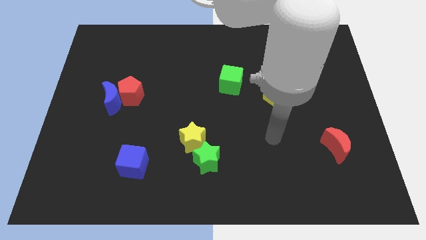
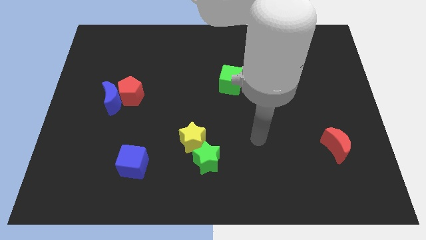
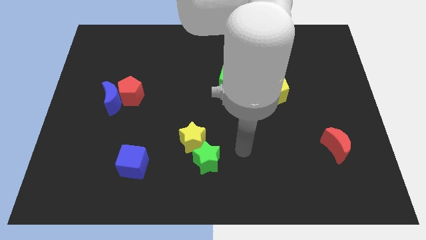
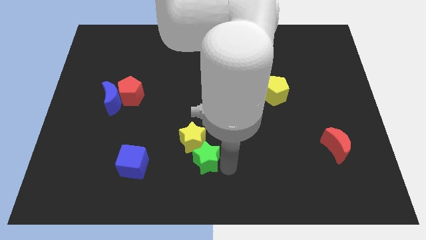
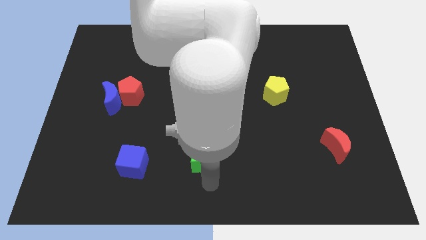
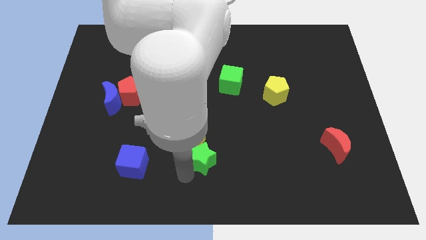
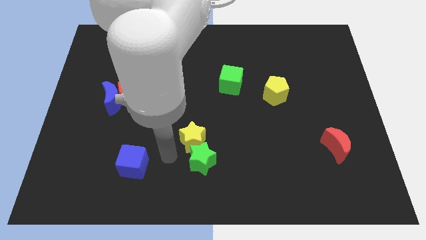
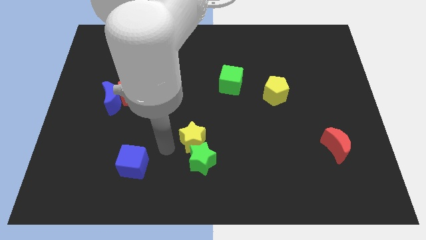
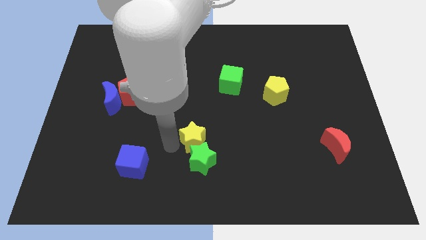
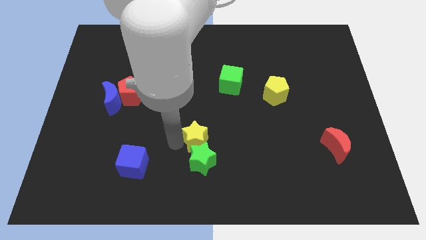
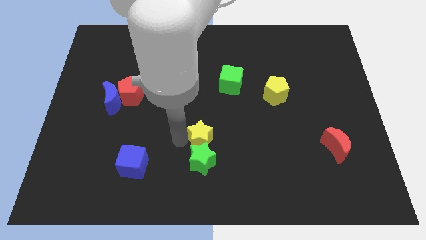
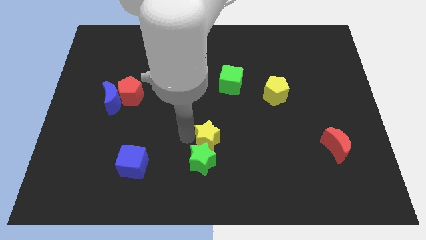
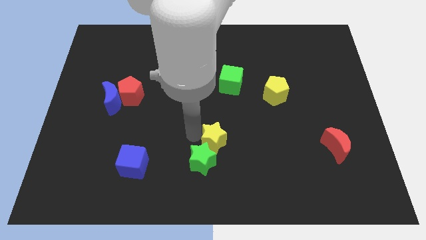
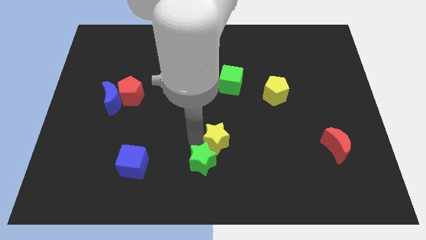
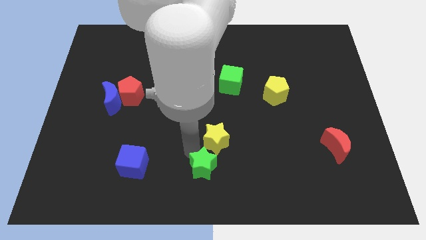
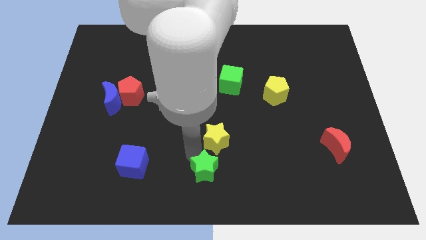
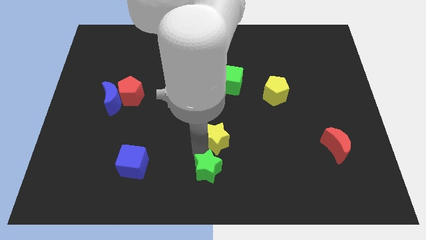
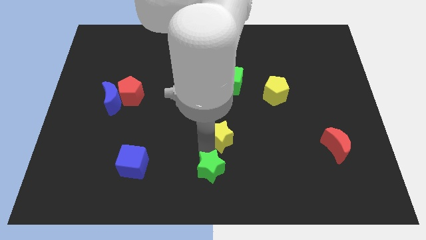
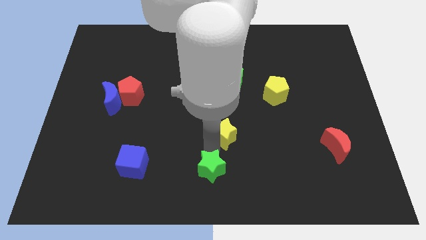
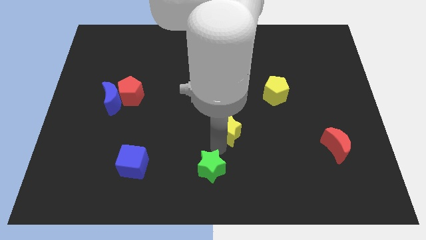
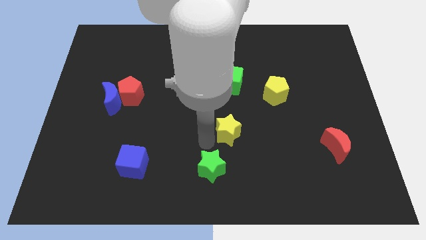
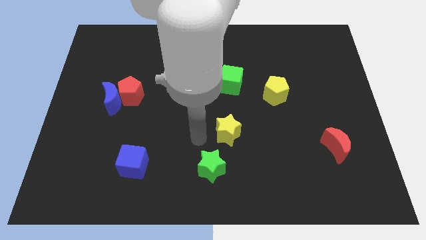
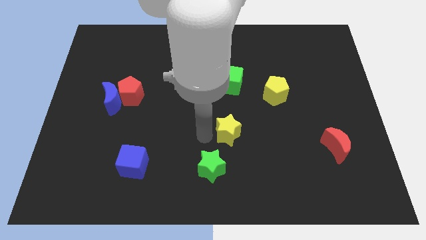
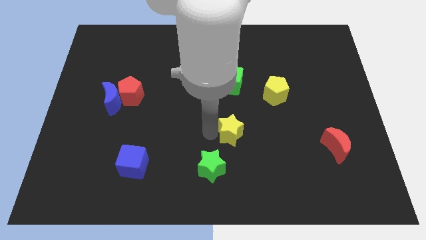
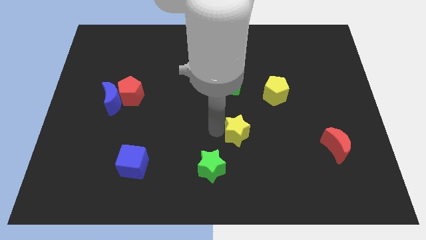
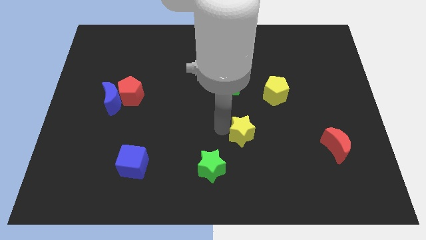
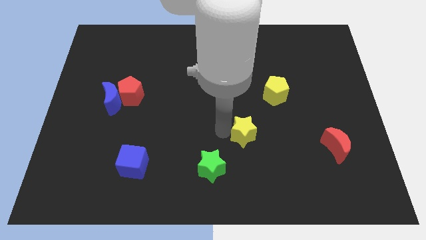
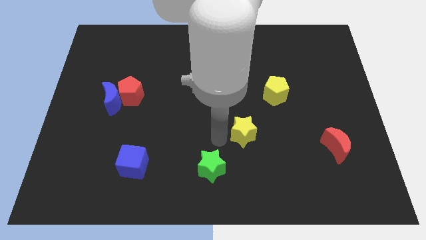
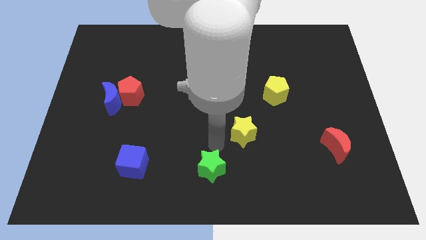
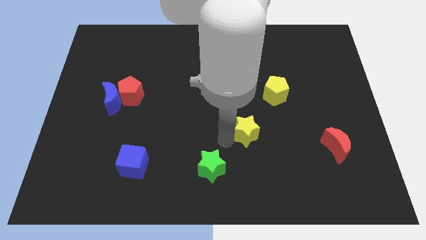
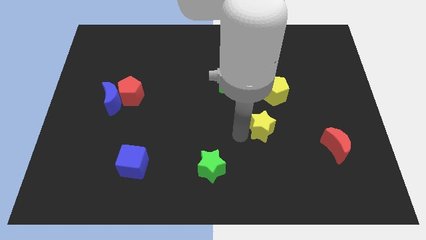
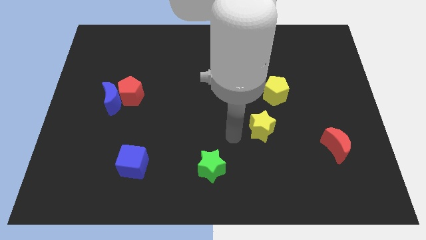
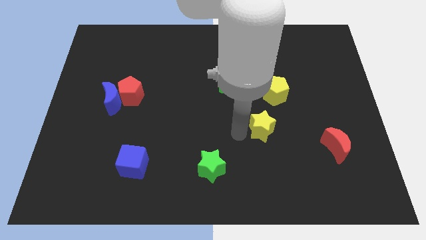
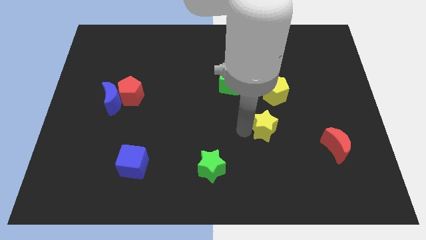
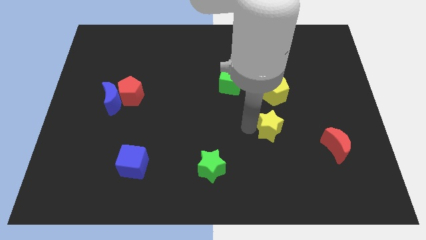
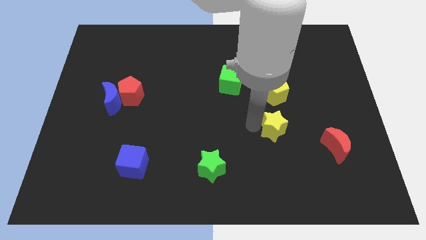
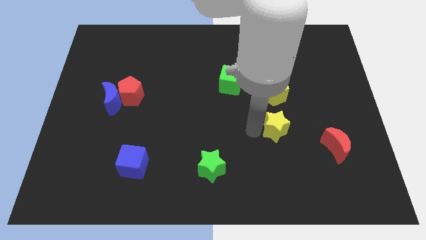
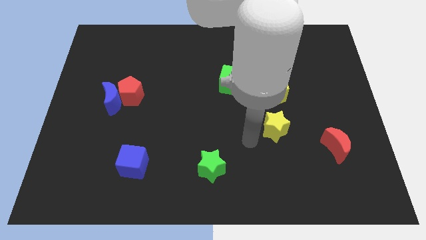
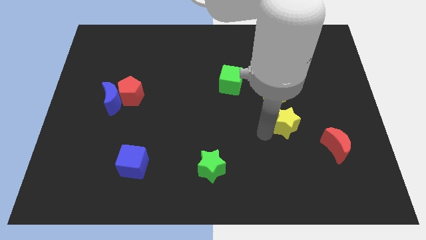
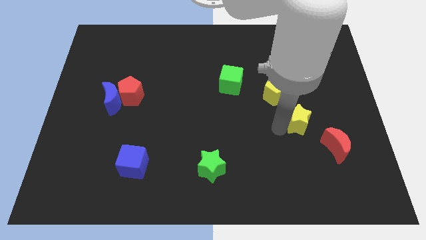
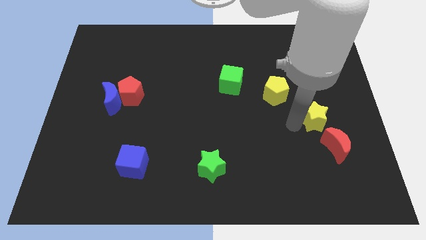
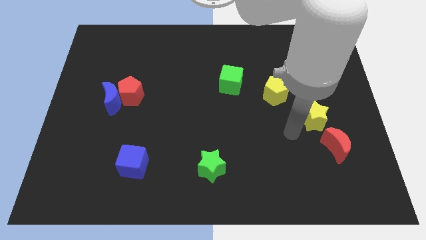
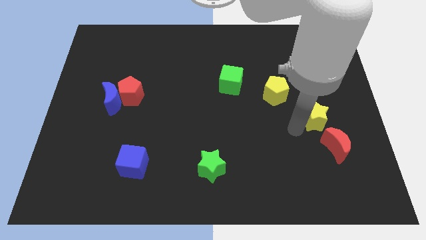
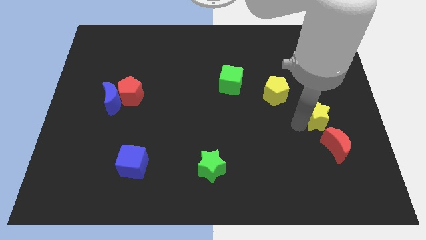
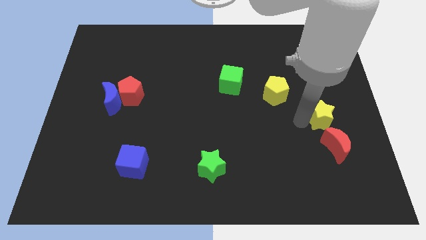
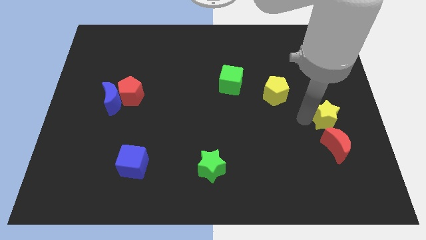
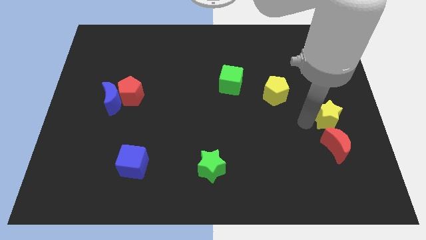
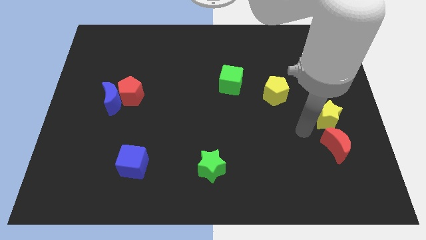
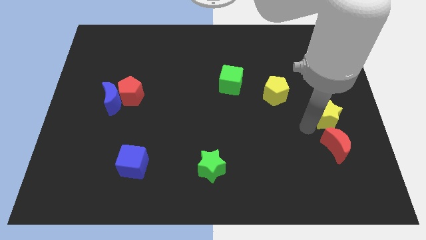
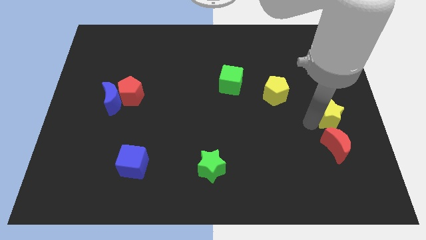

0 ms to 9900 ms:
push the yellow star to the right side

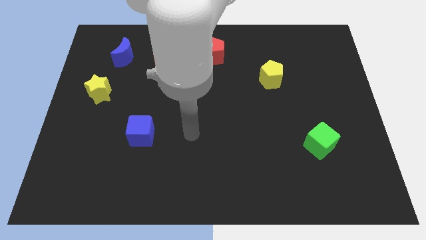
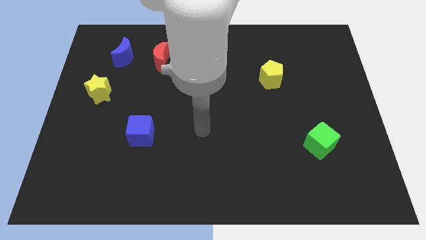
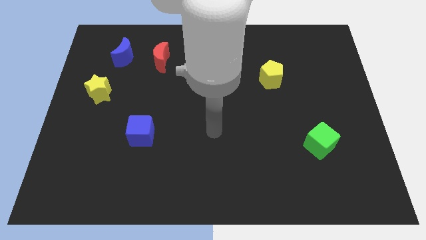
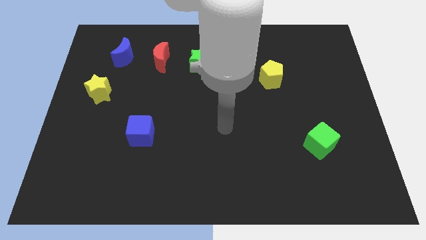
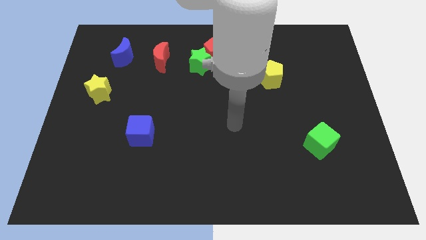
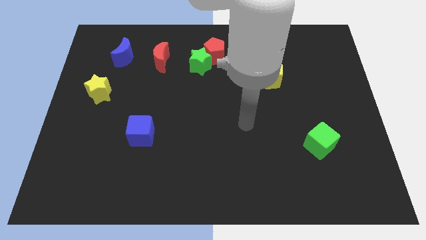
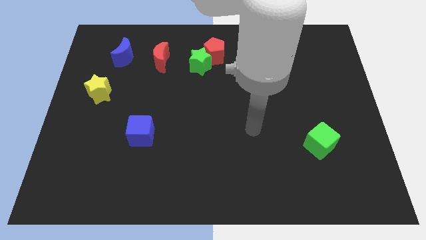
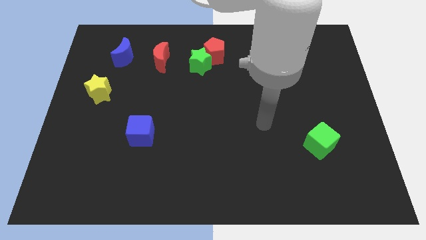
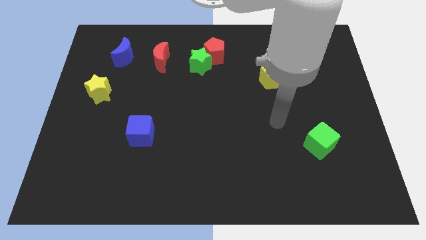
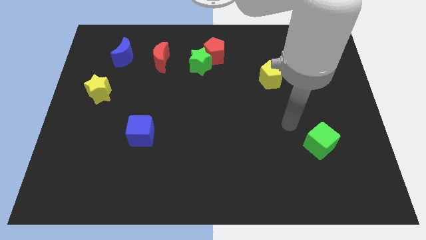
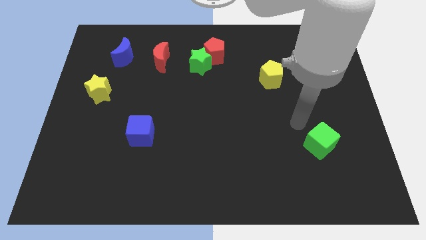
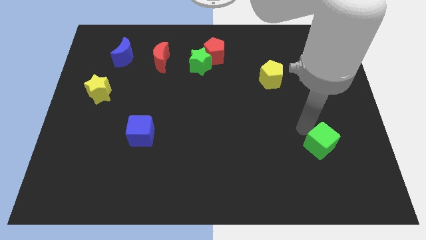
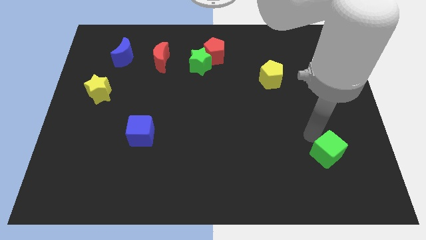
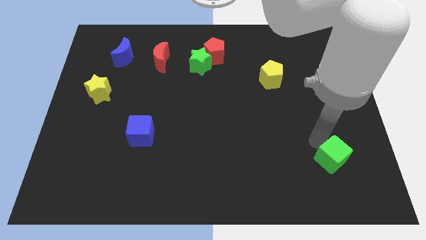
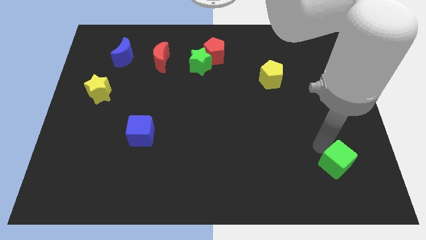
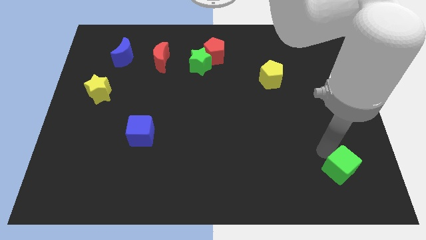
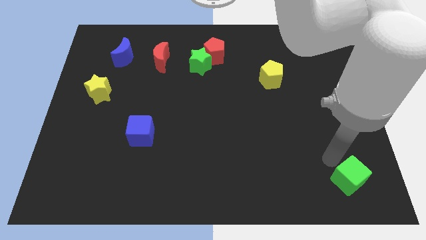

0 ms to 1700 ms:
push the green cube to the bottom right
